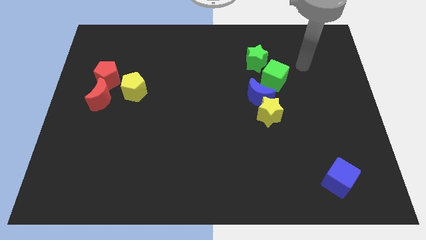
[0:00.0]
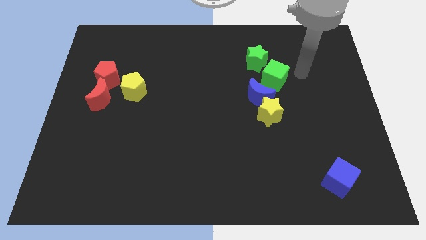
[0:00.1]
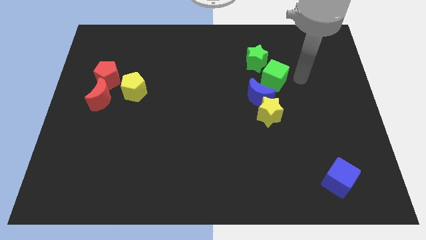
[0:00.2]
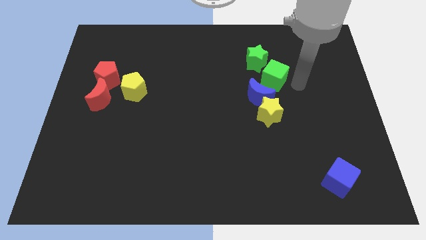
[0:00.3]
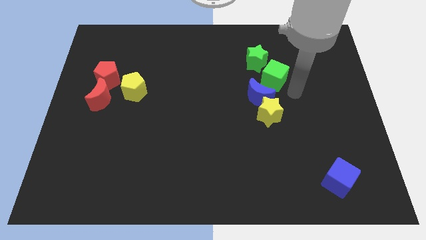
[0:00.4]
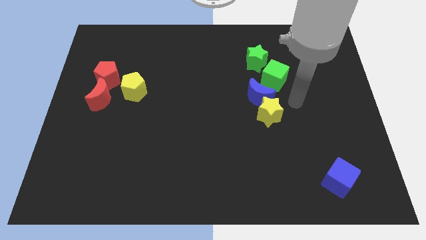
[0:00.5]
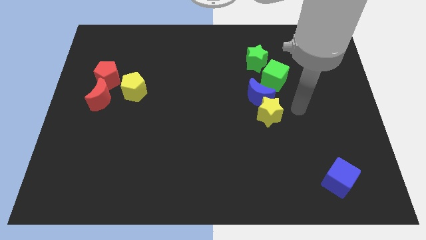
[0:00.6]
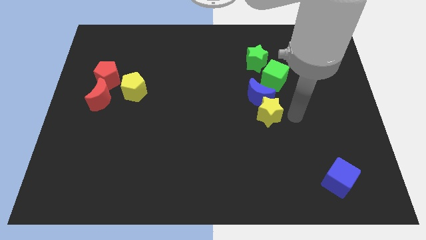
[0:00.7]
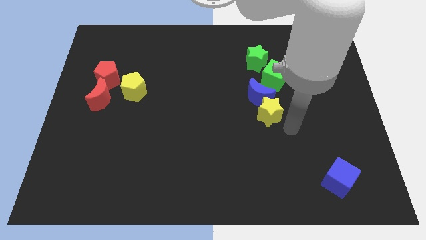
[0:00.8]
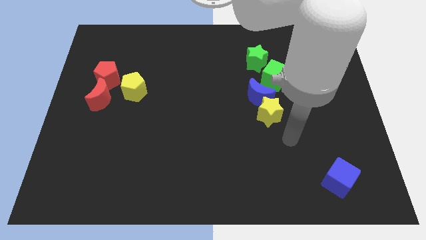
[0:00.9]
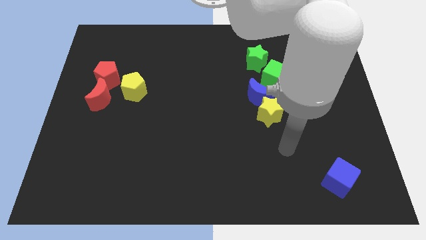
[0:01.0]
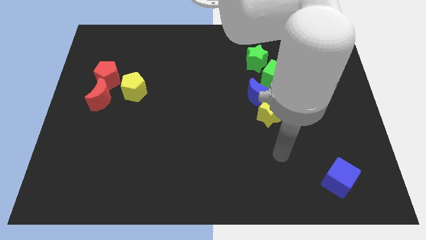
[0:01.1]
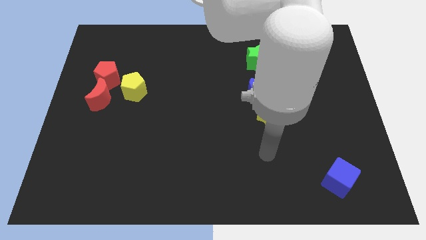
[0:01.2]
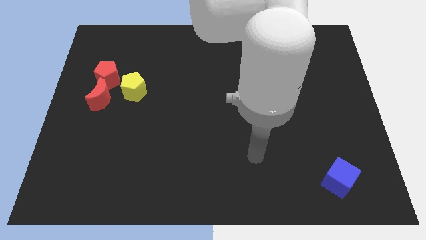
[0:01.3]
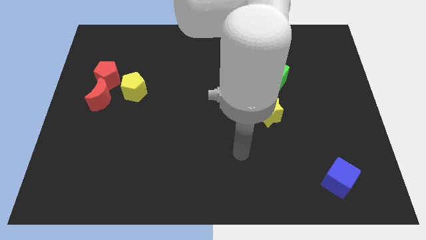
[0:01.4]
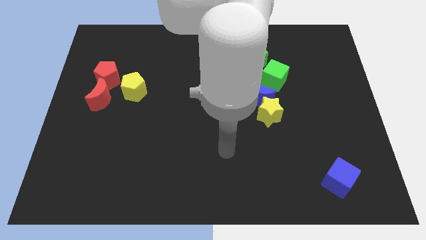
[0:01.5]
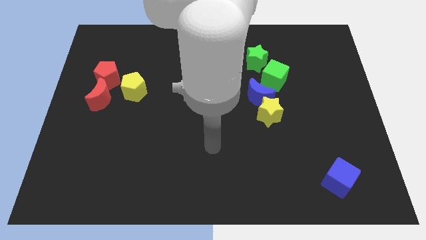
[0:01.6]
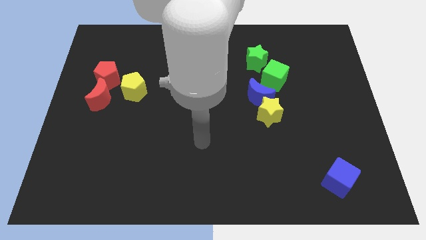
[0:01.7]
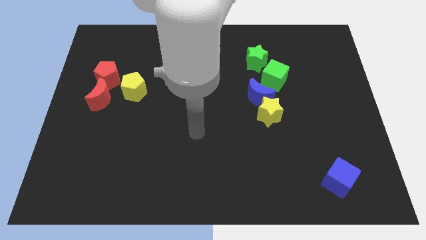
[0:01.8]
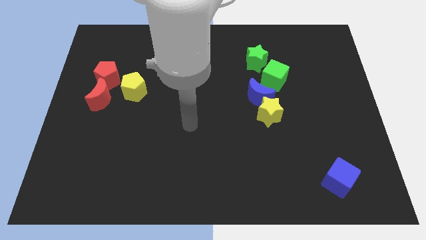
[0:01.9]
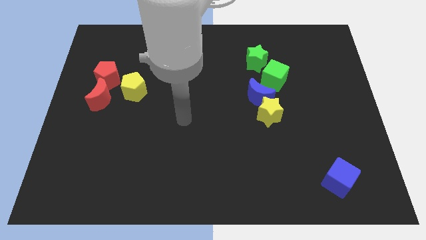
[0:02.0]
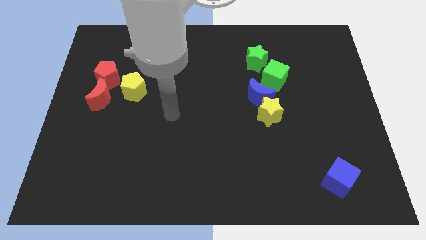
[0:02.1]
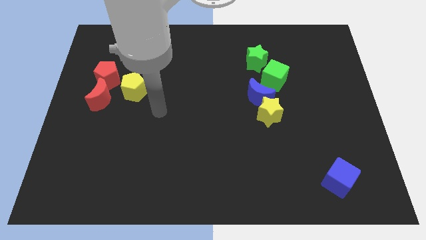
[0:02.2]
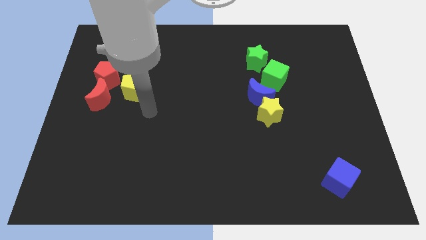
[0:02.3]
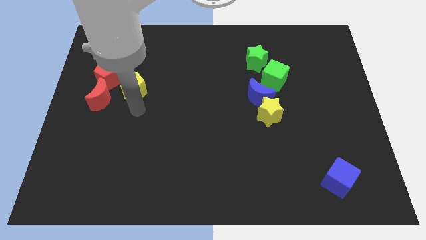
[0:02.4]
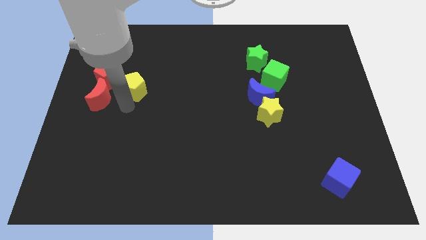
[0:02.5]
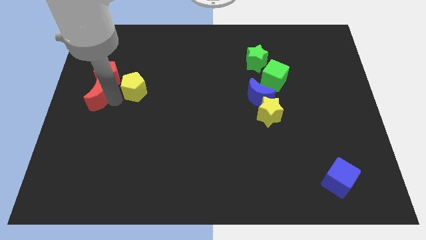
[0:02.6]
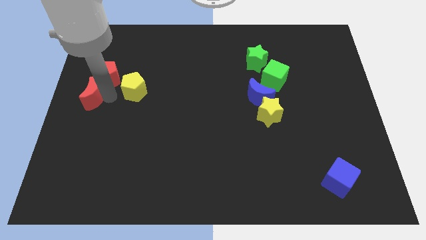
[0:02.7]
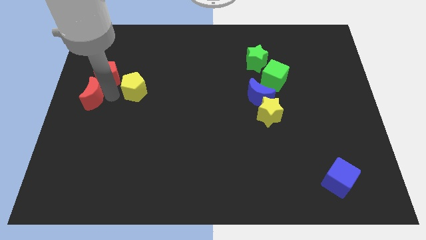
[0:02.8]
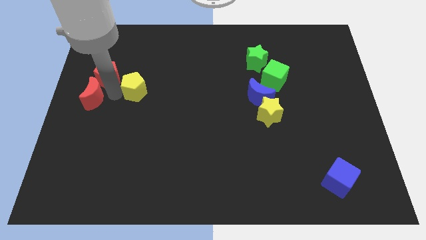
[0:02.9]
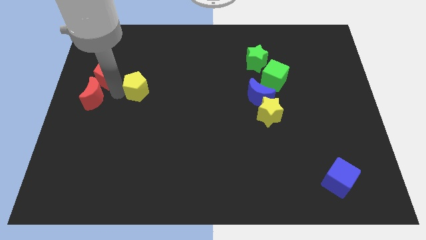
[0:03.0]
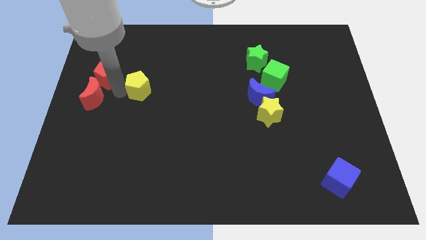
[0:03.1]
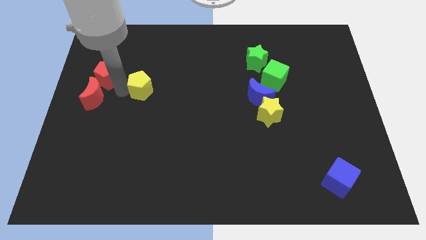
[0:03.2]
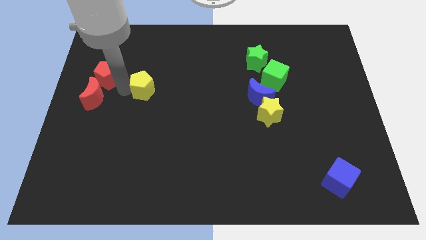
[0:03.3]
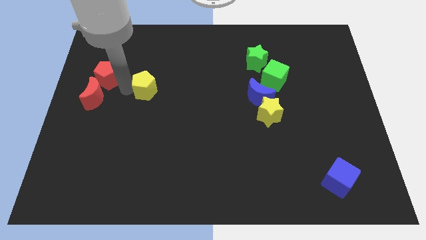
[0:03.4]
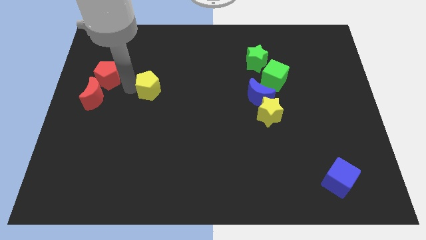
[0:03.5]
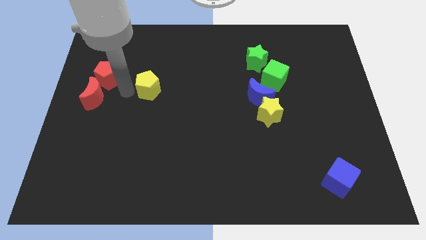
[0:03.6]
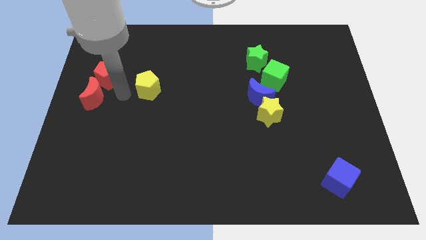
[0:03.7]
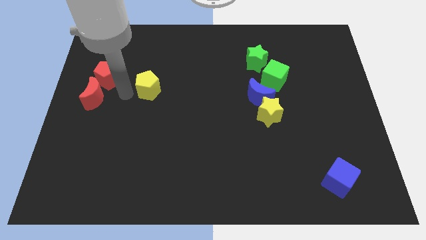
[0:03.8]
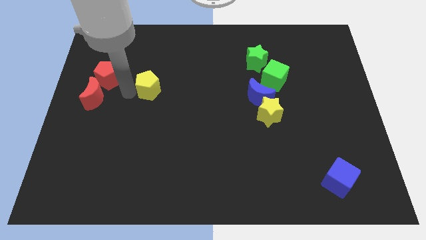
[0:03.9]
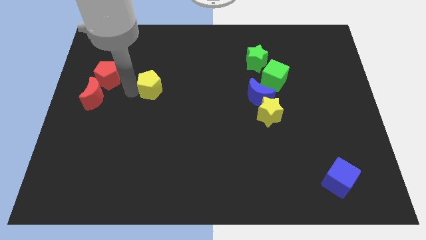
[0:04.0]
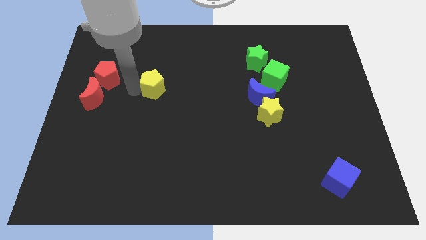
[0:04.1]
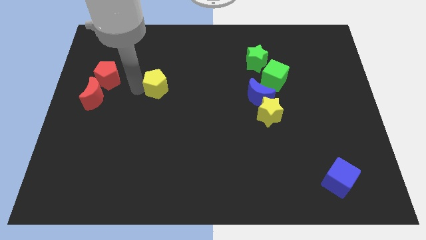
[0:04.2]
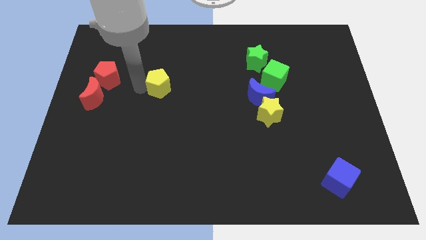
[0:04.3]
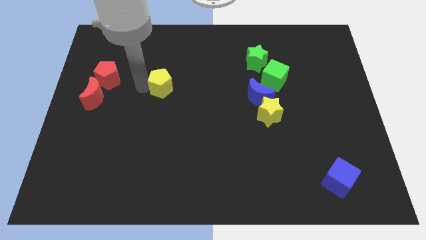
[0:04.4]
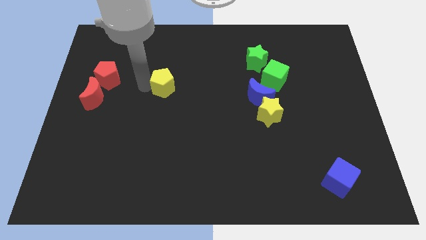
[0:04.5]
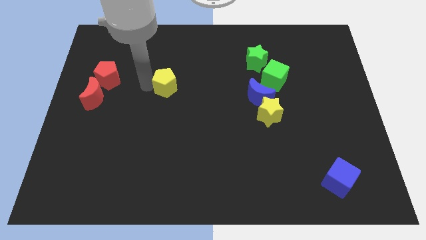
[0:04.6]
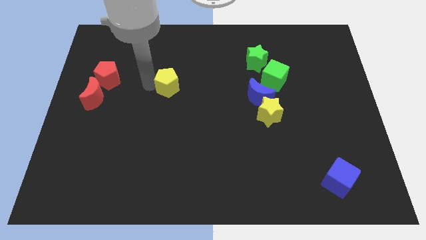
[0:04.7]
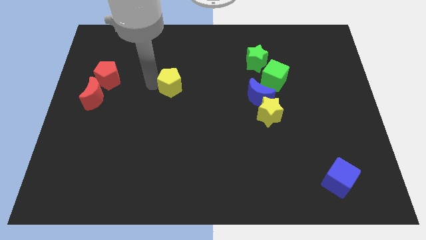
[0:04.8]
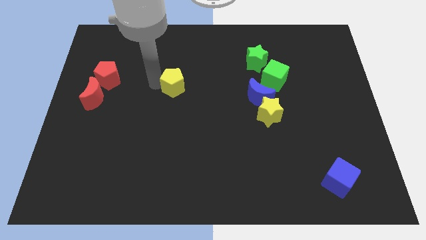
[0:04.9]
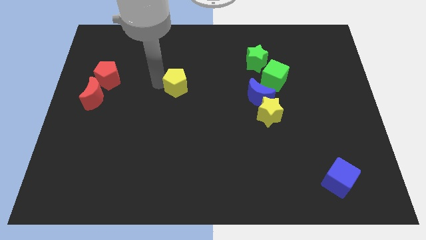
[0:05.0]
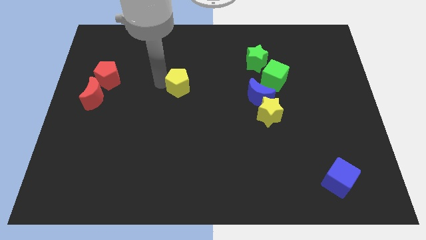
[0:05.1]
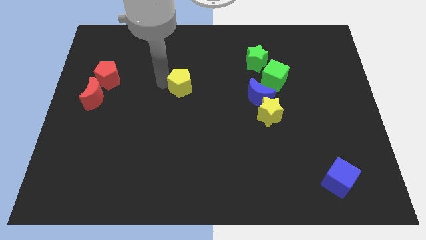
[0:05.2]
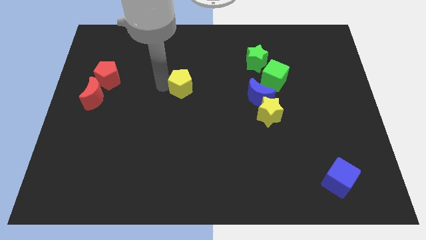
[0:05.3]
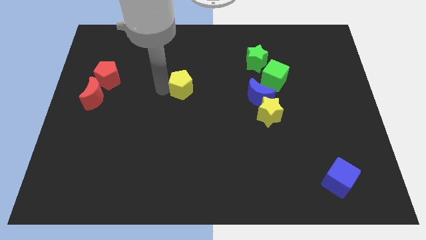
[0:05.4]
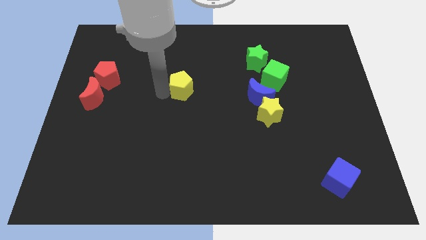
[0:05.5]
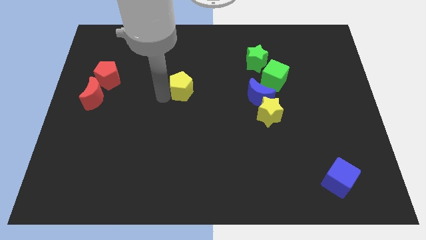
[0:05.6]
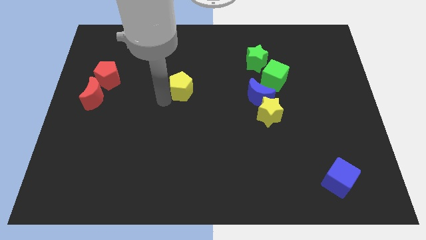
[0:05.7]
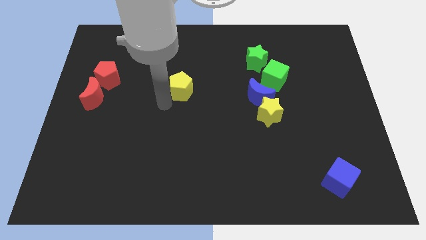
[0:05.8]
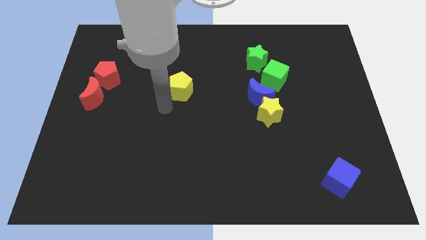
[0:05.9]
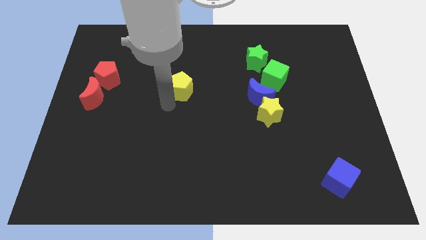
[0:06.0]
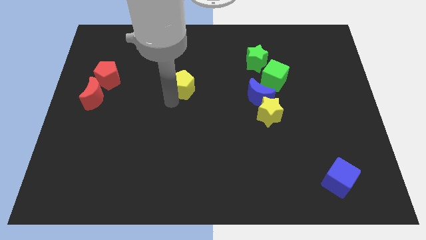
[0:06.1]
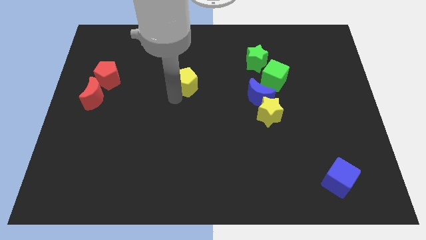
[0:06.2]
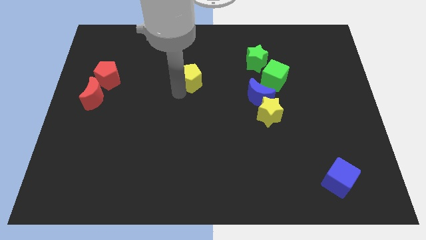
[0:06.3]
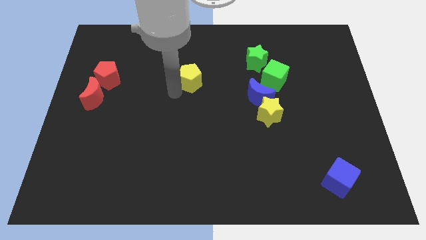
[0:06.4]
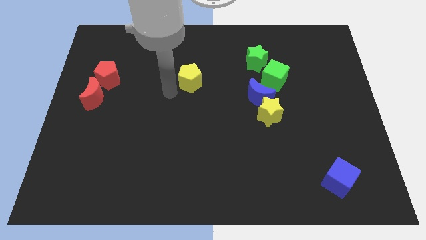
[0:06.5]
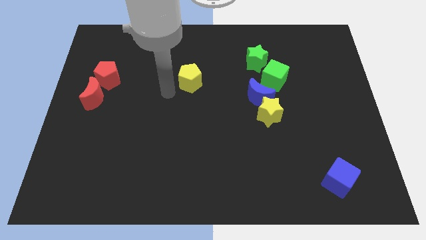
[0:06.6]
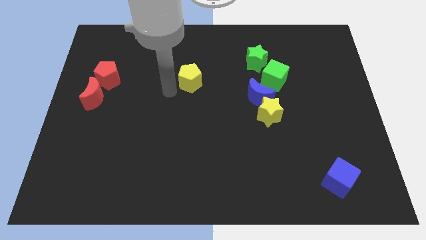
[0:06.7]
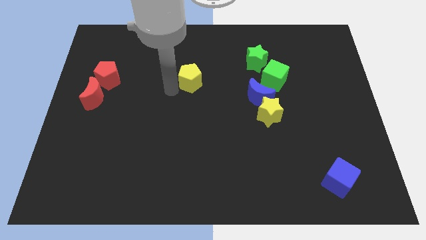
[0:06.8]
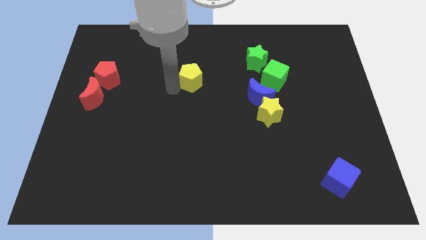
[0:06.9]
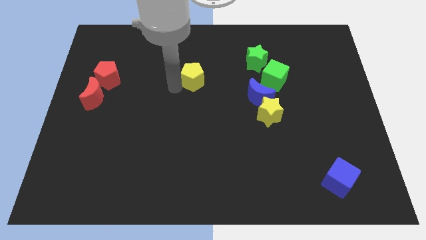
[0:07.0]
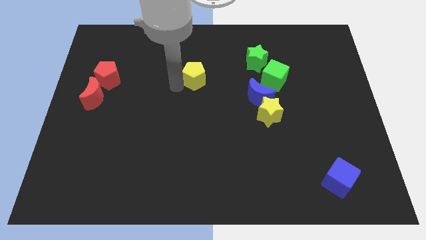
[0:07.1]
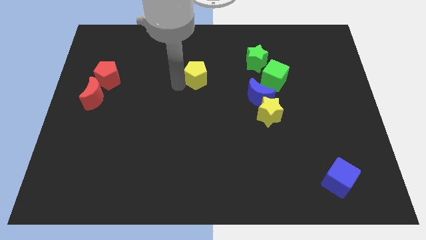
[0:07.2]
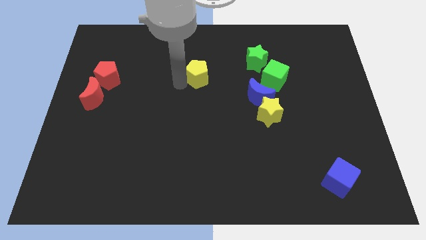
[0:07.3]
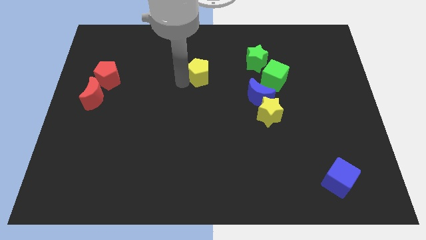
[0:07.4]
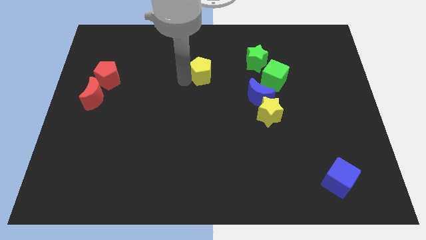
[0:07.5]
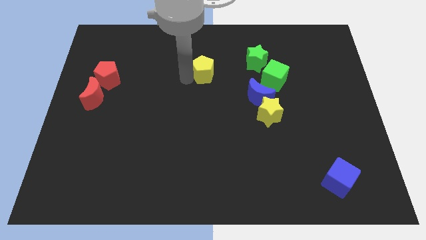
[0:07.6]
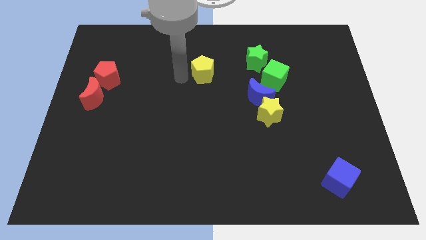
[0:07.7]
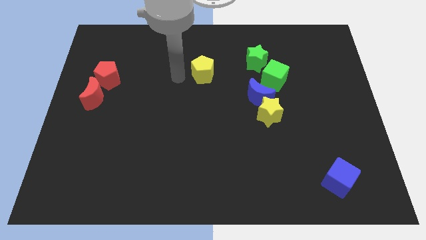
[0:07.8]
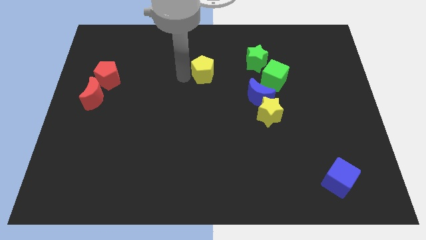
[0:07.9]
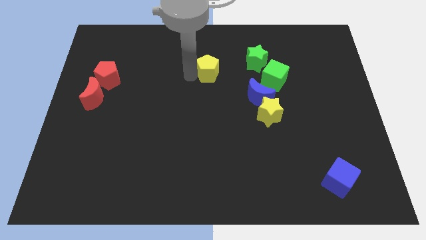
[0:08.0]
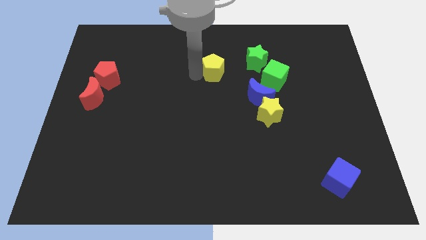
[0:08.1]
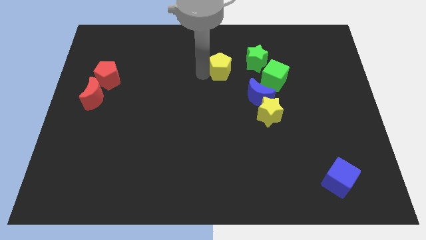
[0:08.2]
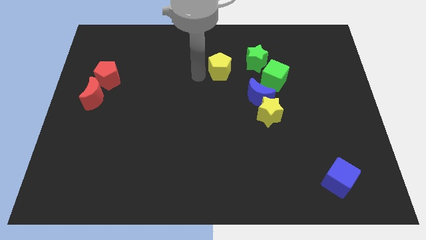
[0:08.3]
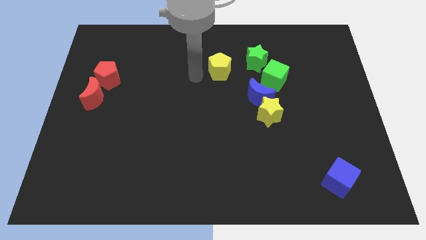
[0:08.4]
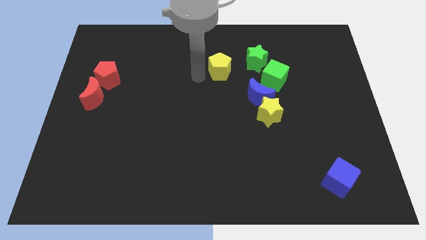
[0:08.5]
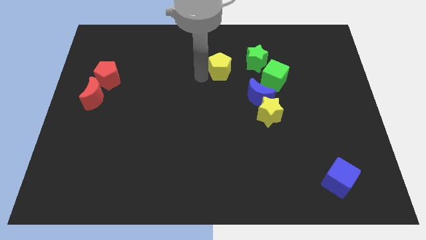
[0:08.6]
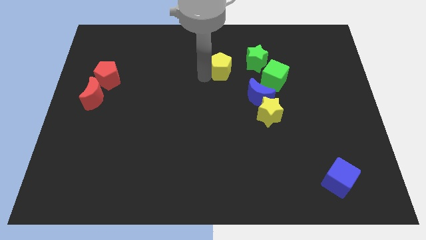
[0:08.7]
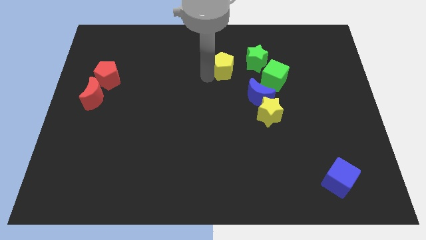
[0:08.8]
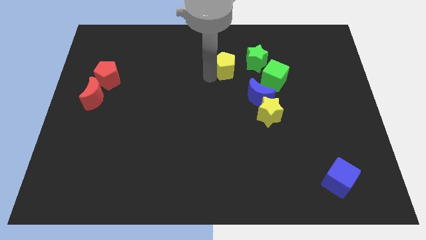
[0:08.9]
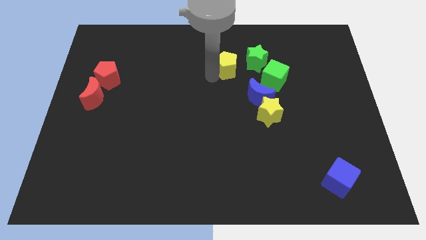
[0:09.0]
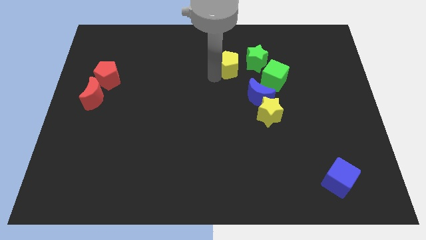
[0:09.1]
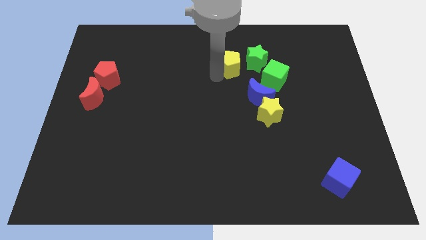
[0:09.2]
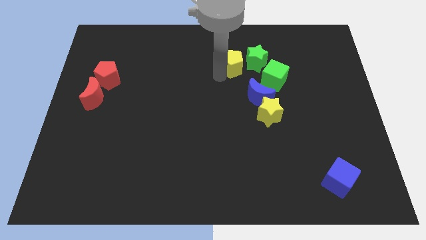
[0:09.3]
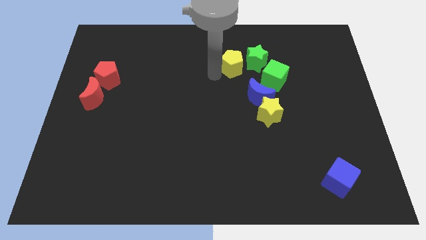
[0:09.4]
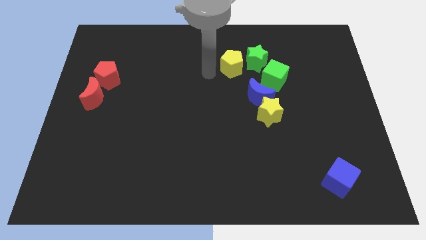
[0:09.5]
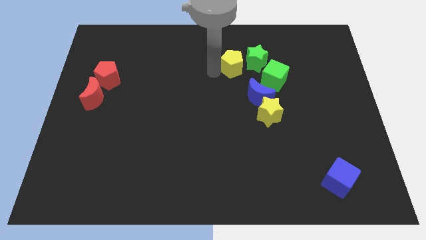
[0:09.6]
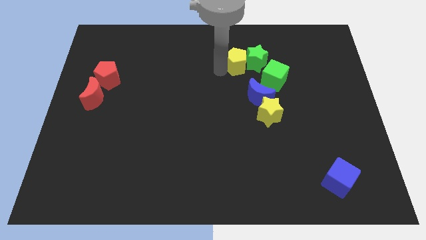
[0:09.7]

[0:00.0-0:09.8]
slide the yellow pentagon close to the green star
